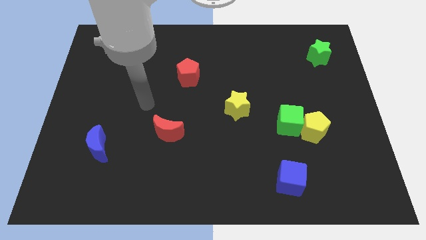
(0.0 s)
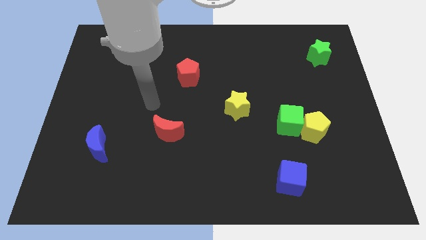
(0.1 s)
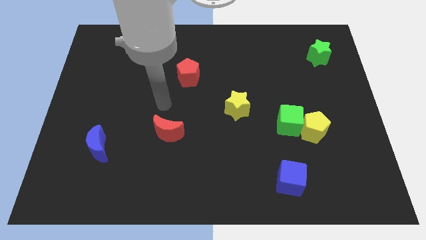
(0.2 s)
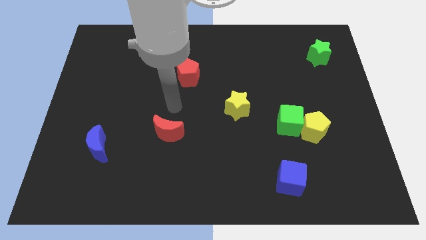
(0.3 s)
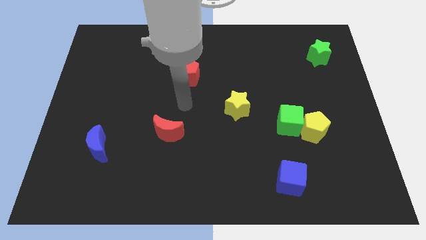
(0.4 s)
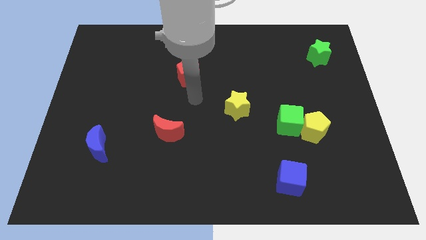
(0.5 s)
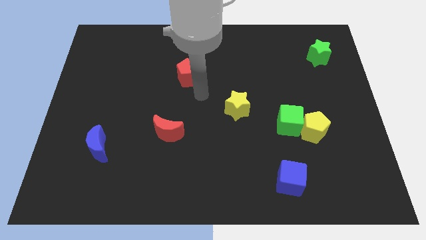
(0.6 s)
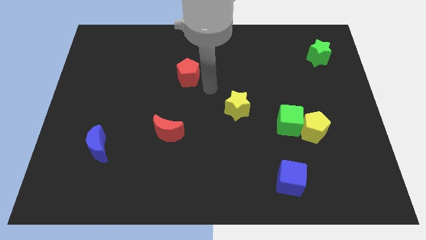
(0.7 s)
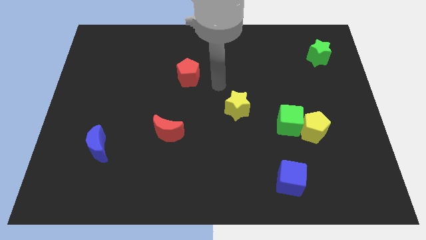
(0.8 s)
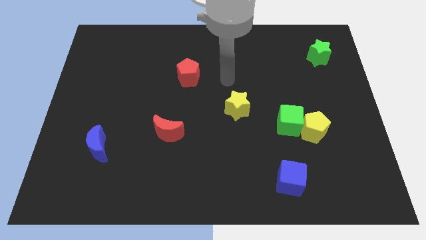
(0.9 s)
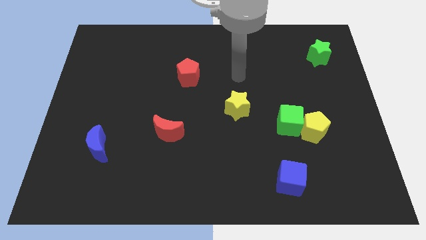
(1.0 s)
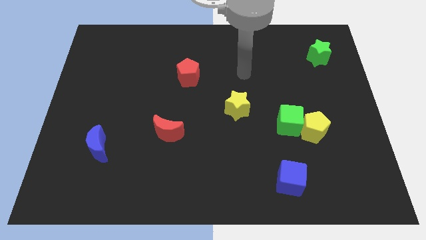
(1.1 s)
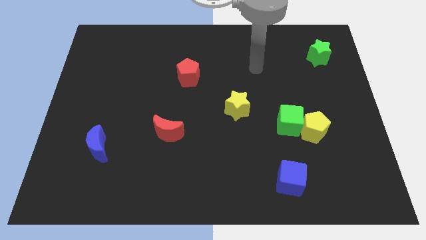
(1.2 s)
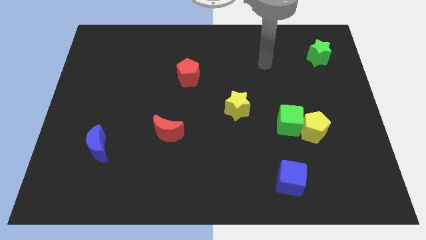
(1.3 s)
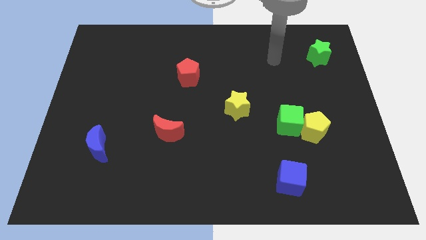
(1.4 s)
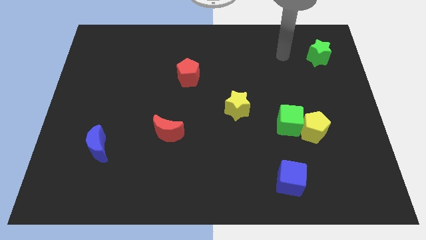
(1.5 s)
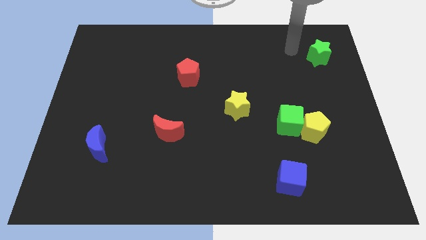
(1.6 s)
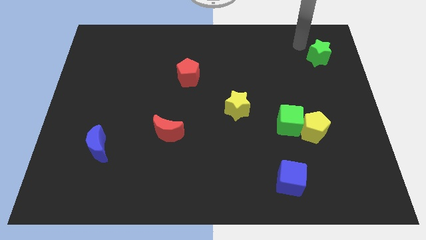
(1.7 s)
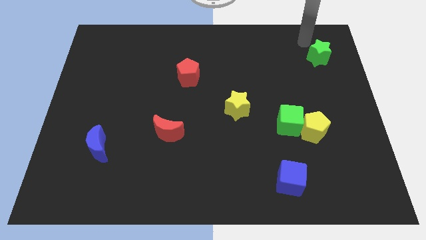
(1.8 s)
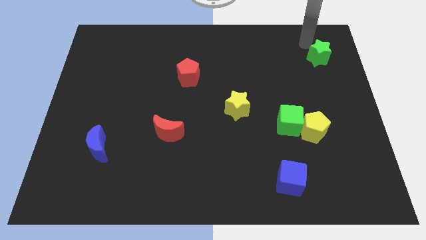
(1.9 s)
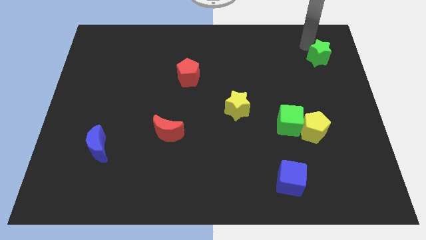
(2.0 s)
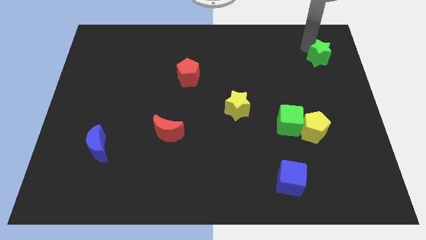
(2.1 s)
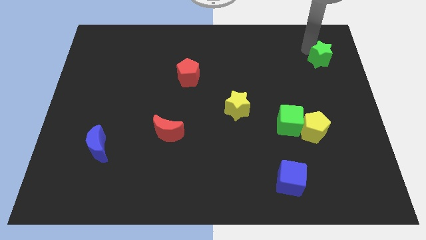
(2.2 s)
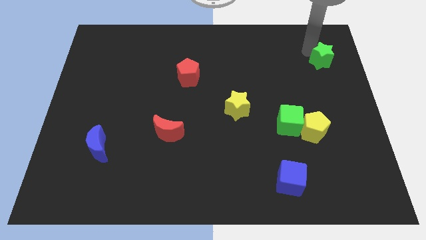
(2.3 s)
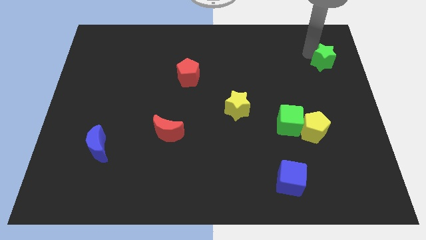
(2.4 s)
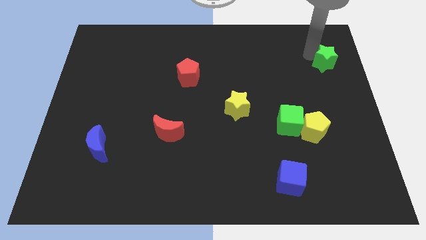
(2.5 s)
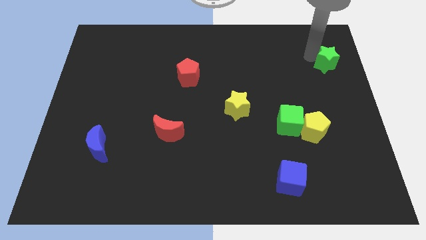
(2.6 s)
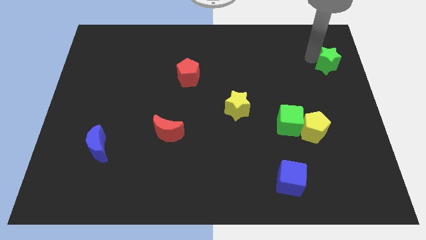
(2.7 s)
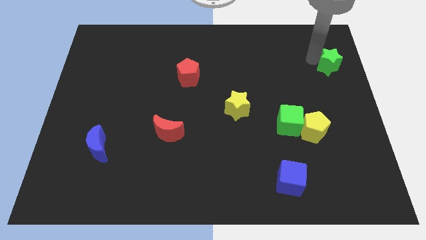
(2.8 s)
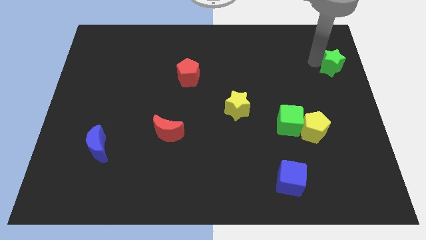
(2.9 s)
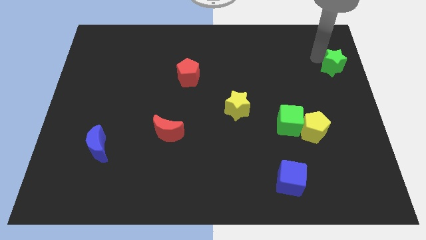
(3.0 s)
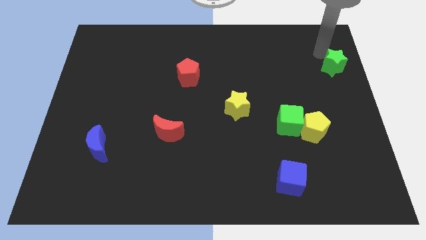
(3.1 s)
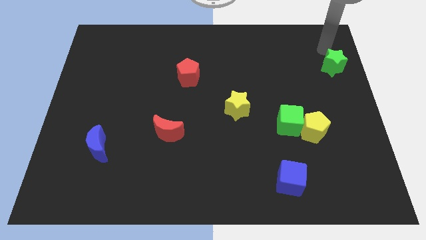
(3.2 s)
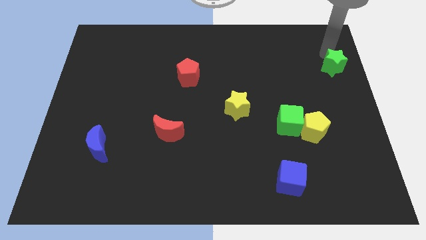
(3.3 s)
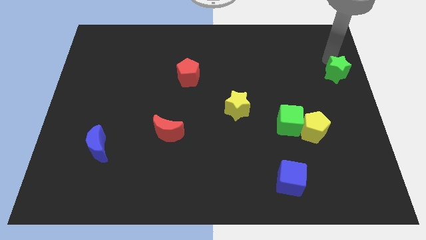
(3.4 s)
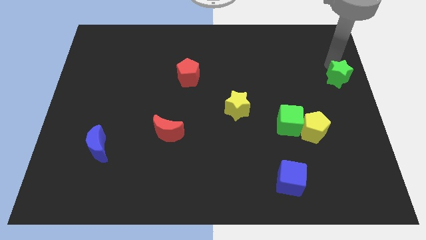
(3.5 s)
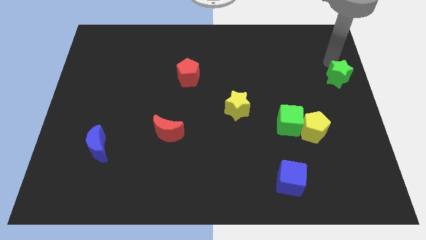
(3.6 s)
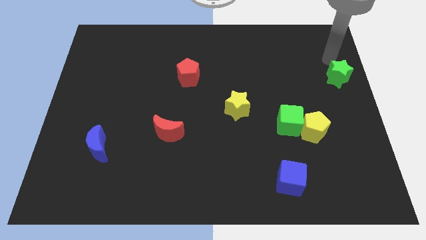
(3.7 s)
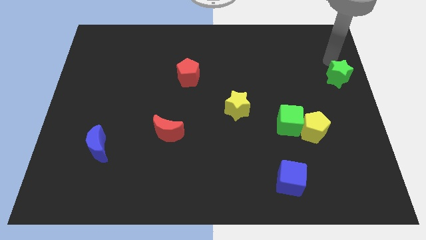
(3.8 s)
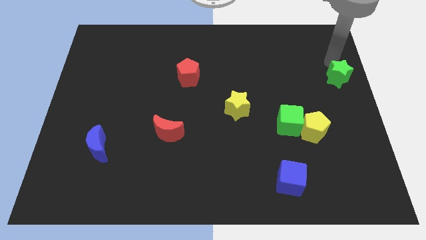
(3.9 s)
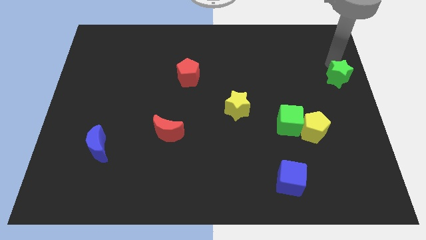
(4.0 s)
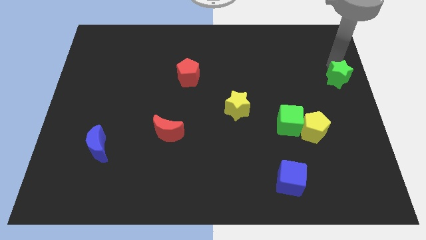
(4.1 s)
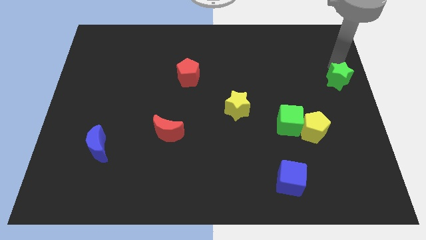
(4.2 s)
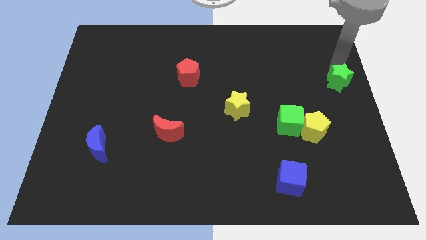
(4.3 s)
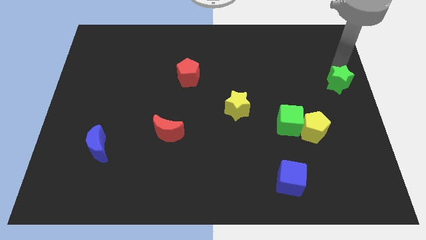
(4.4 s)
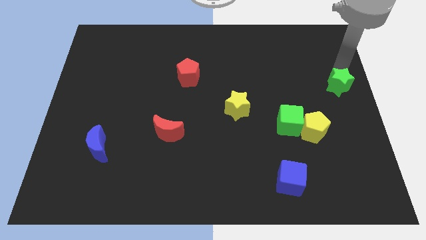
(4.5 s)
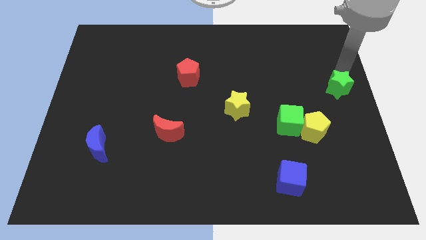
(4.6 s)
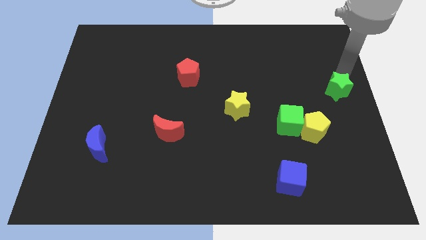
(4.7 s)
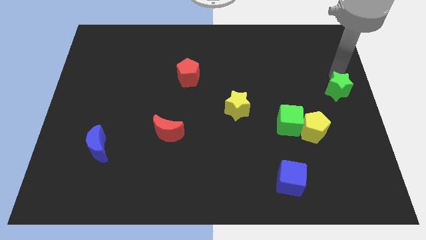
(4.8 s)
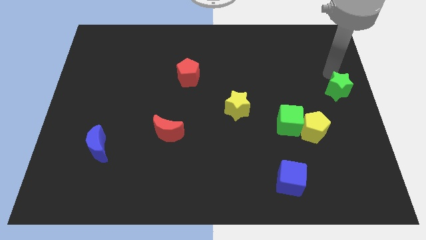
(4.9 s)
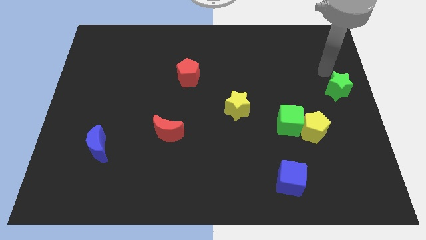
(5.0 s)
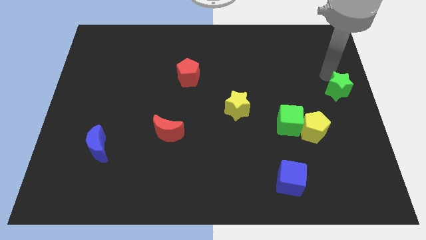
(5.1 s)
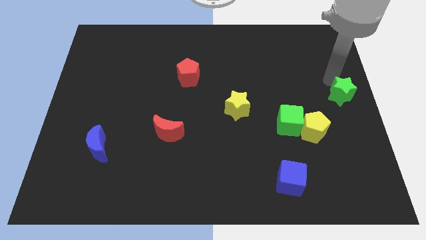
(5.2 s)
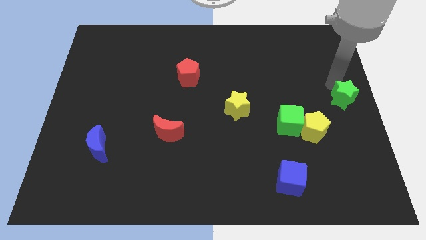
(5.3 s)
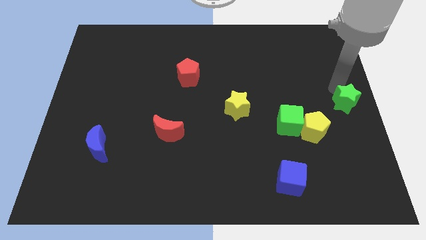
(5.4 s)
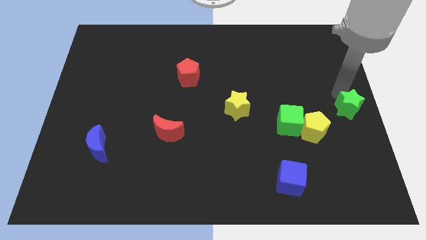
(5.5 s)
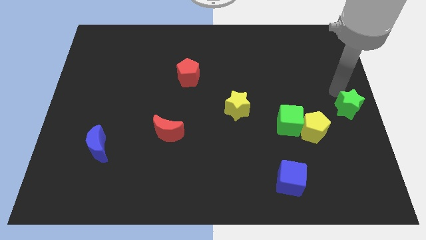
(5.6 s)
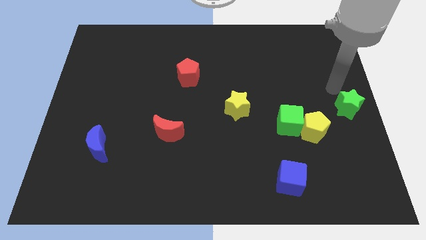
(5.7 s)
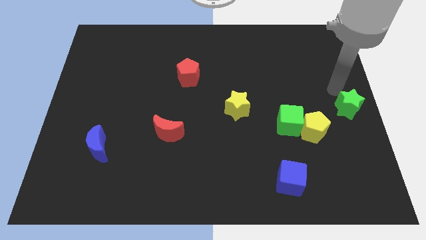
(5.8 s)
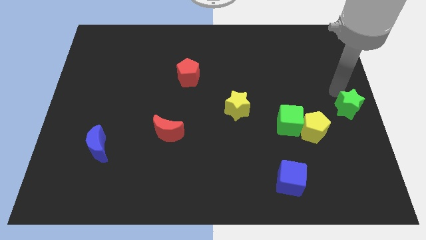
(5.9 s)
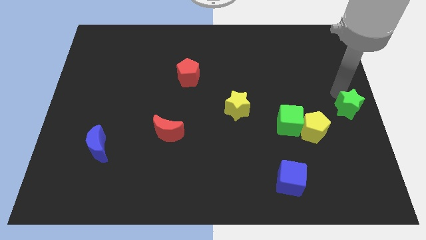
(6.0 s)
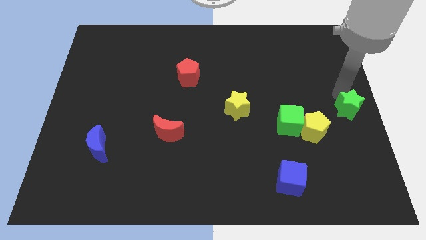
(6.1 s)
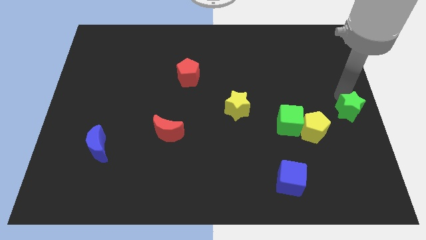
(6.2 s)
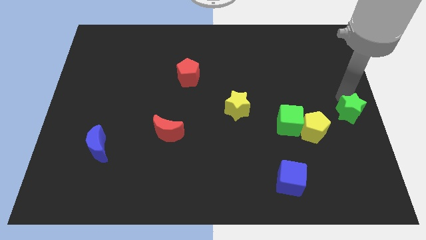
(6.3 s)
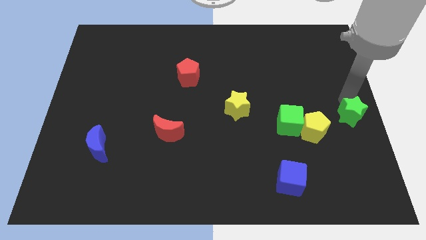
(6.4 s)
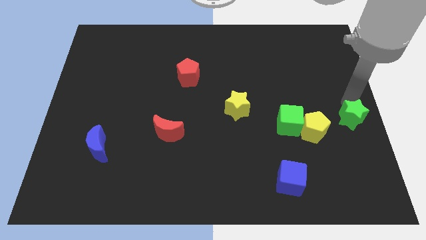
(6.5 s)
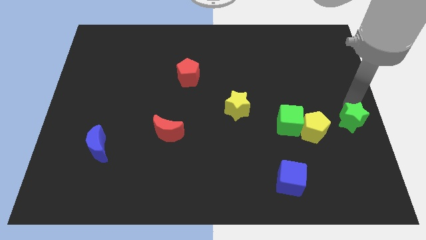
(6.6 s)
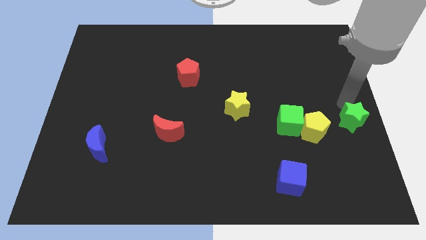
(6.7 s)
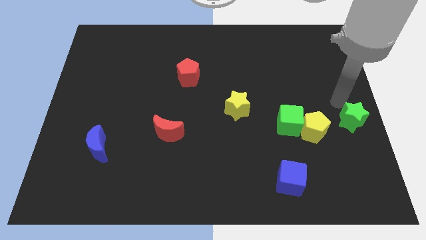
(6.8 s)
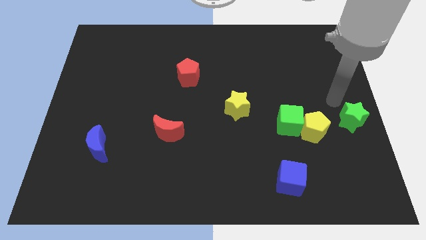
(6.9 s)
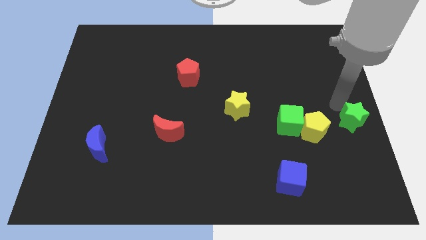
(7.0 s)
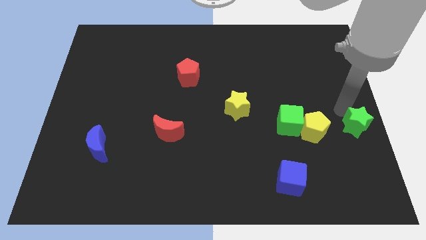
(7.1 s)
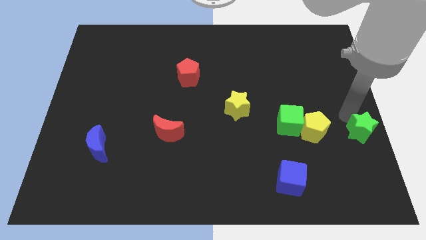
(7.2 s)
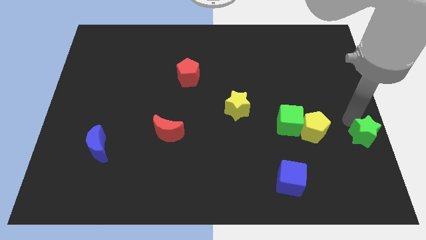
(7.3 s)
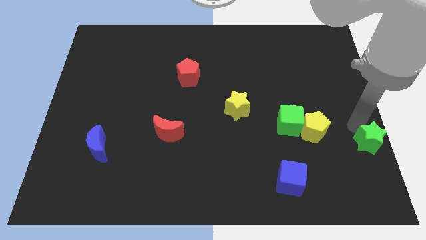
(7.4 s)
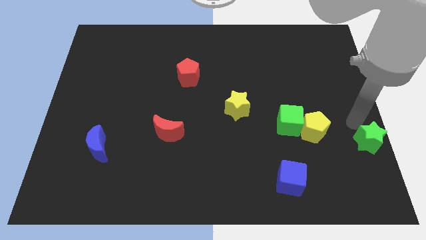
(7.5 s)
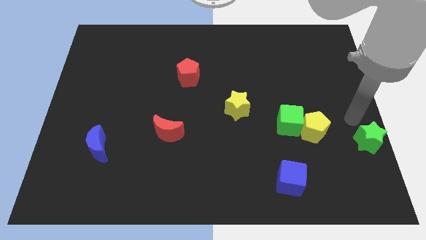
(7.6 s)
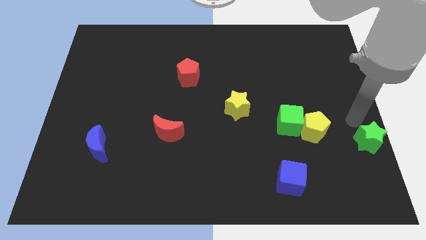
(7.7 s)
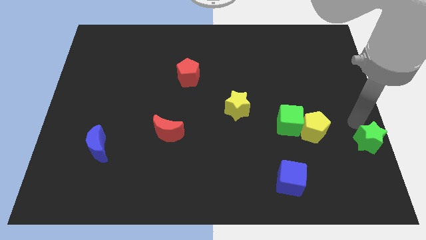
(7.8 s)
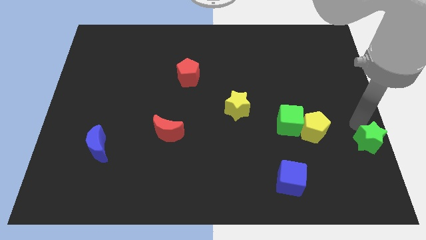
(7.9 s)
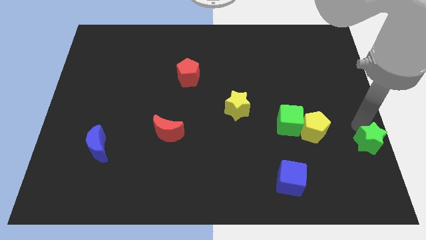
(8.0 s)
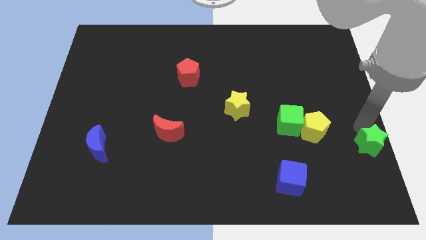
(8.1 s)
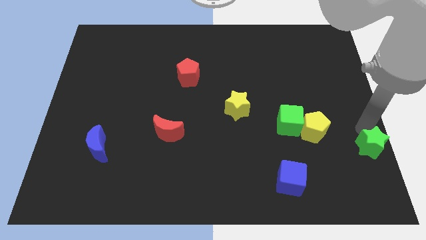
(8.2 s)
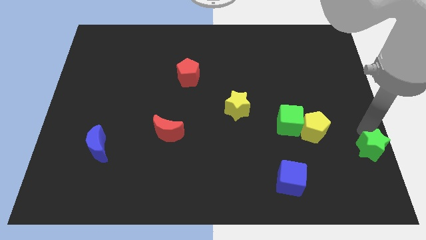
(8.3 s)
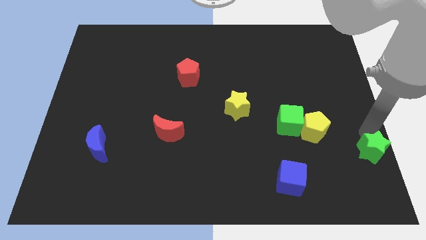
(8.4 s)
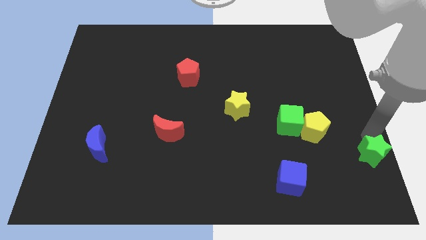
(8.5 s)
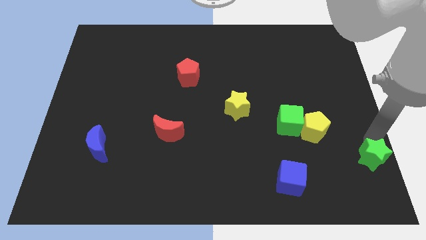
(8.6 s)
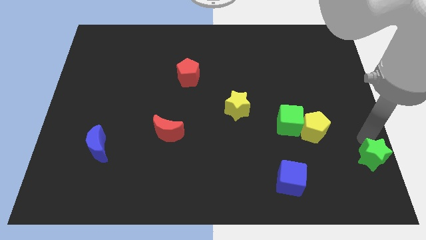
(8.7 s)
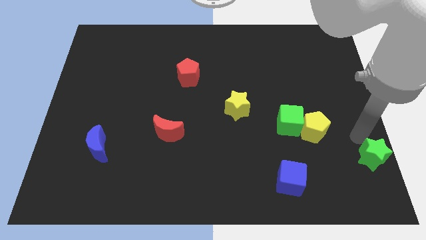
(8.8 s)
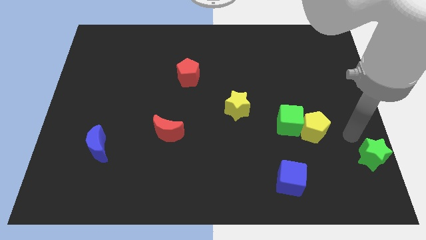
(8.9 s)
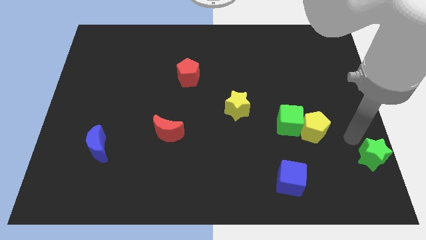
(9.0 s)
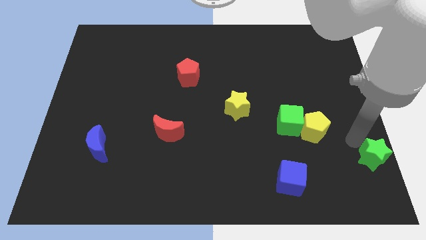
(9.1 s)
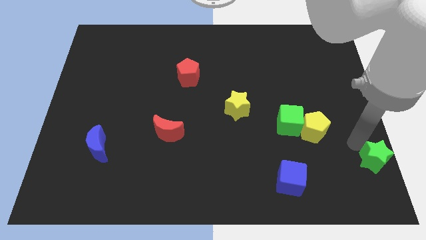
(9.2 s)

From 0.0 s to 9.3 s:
slide the green star to the bottom right of the board
